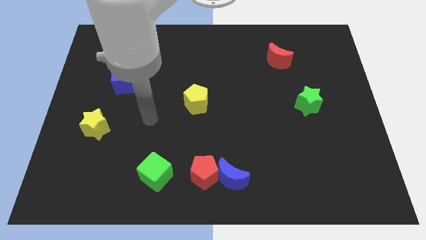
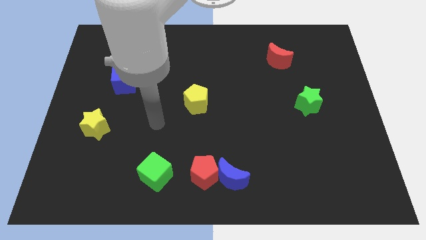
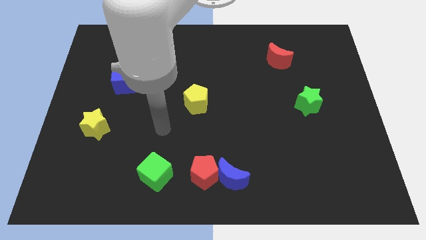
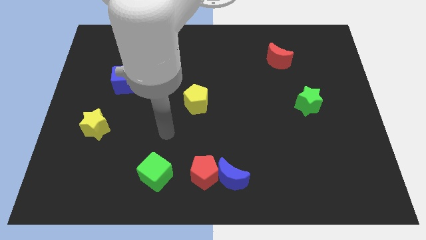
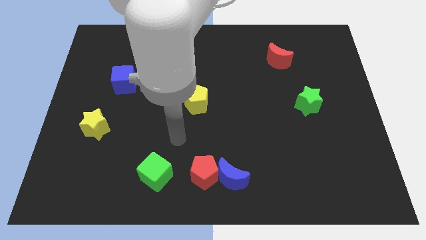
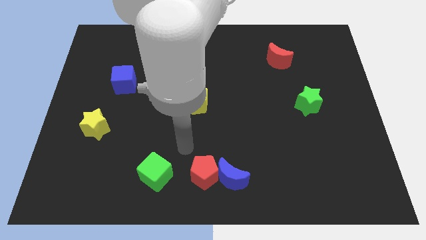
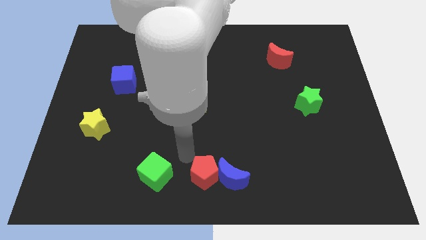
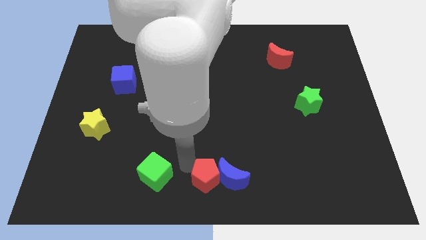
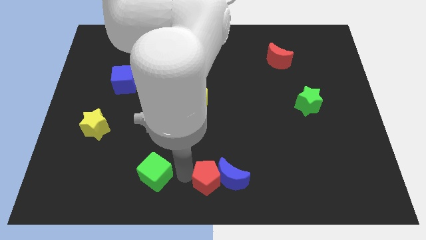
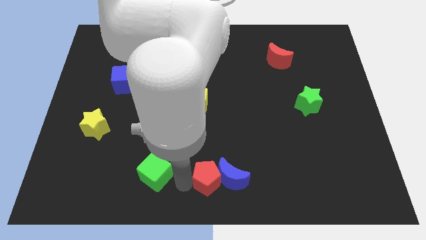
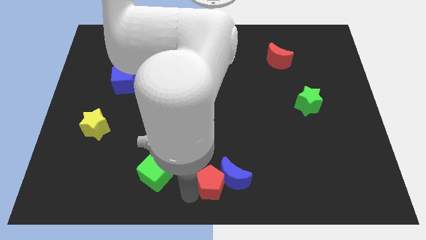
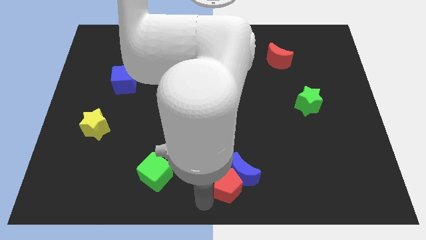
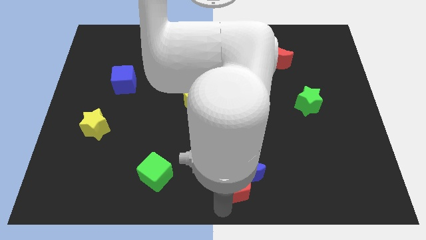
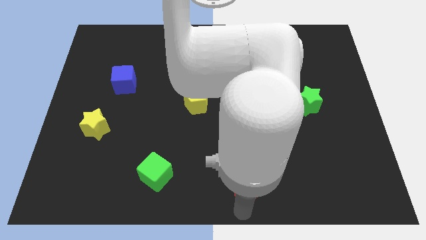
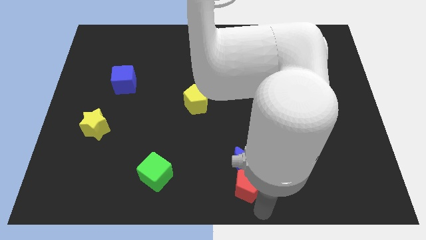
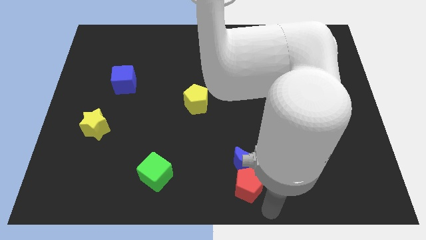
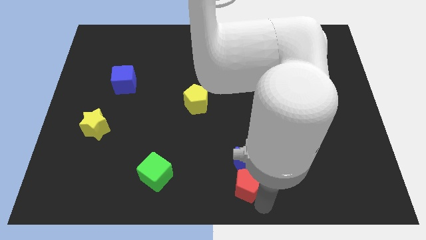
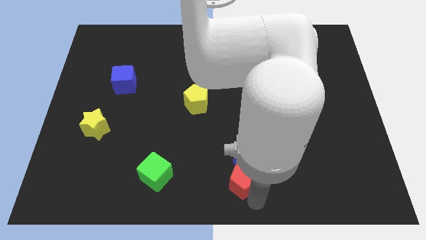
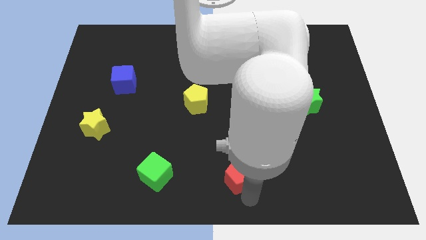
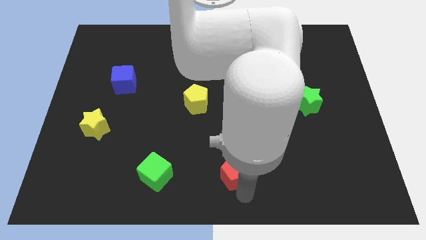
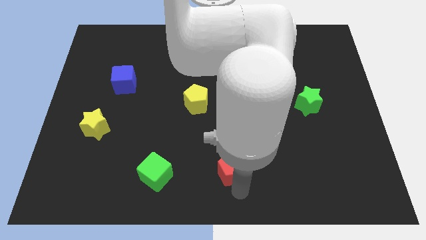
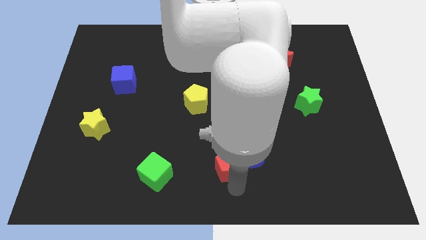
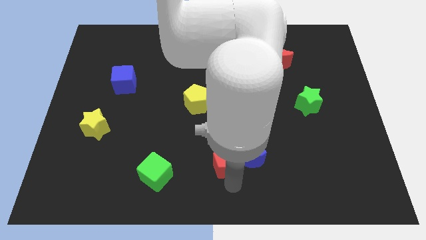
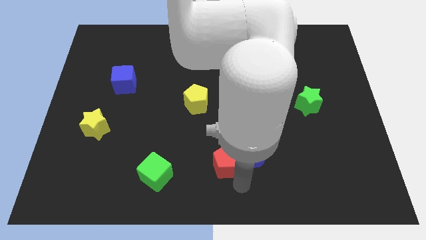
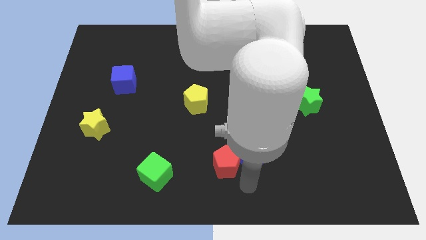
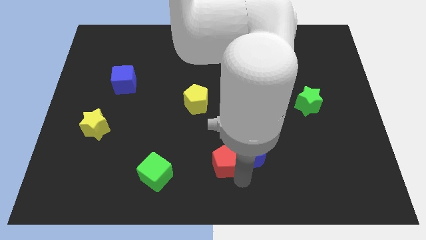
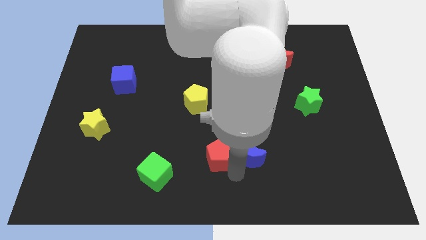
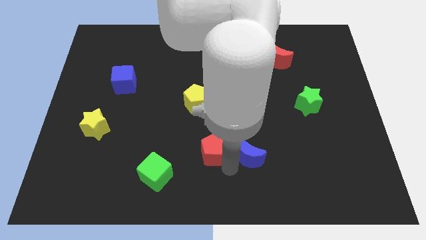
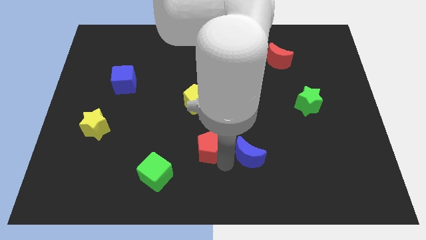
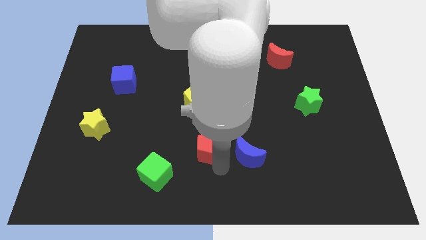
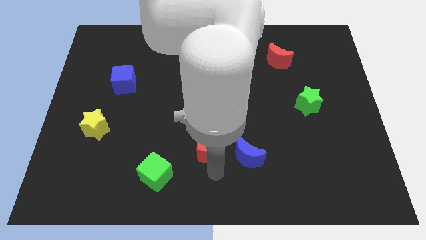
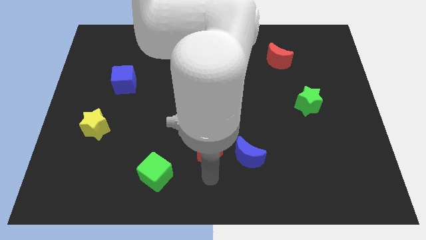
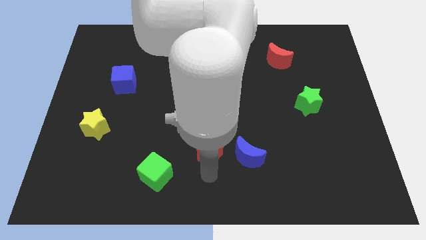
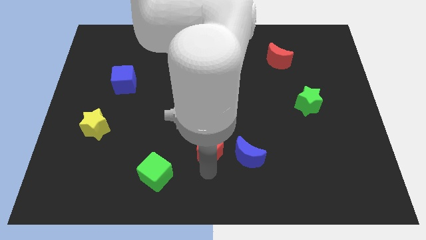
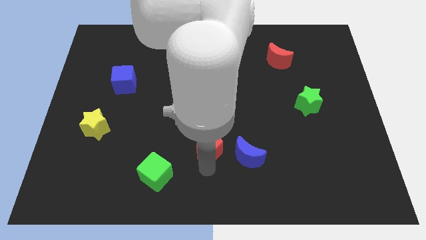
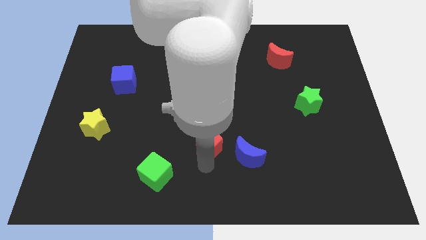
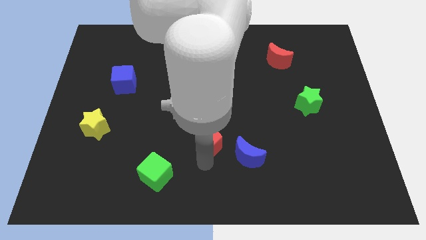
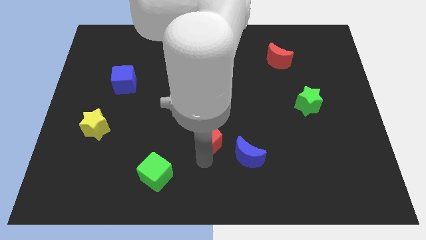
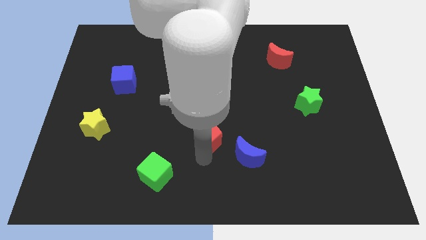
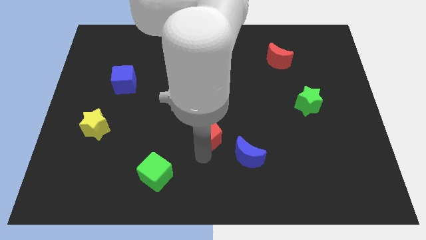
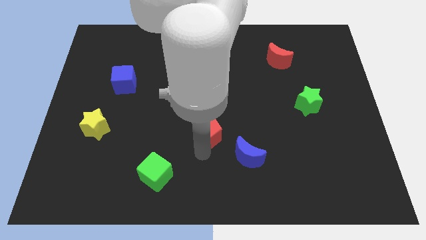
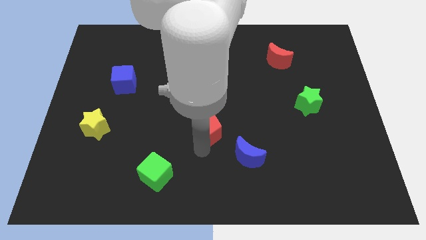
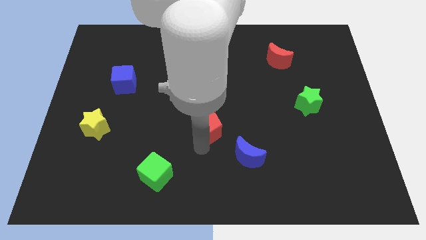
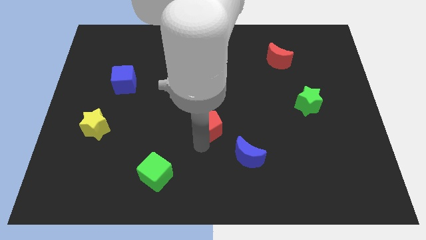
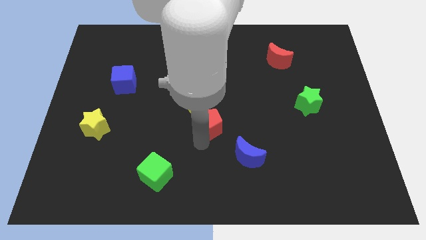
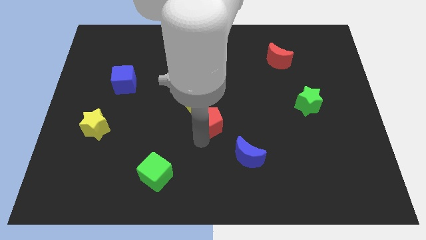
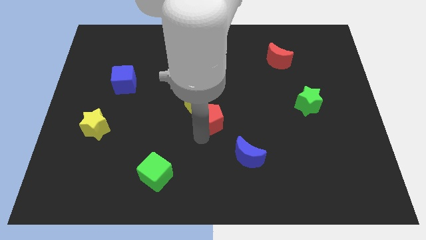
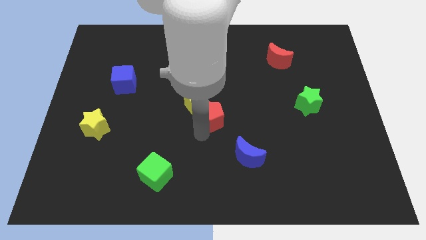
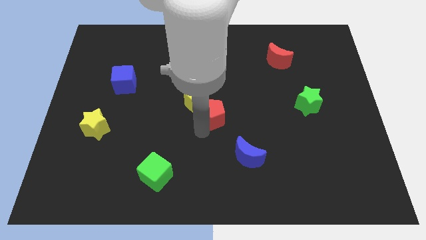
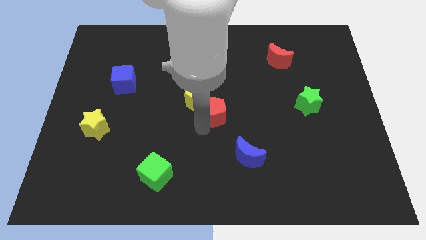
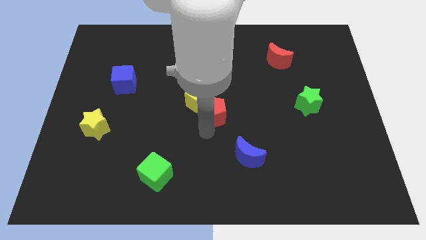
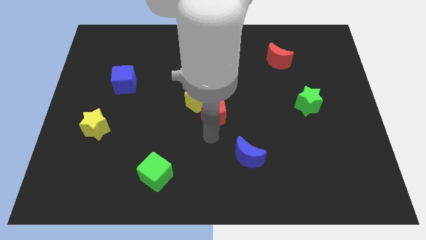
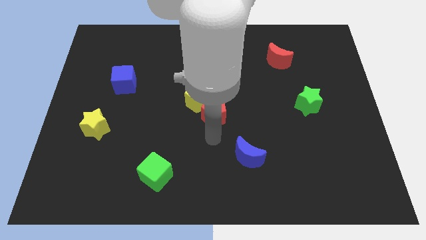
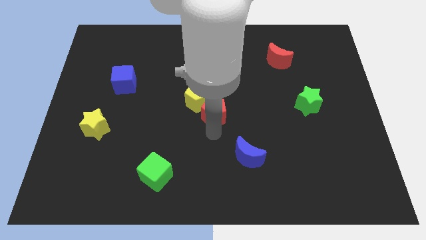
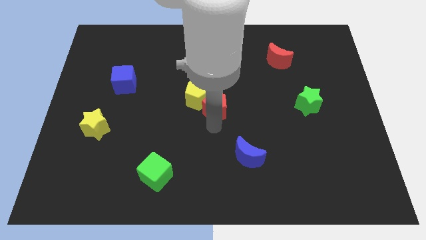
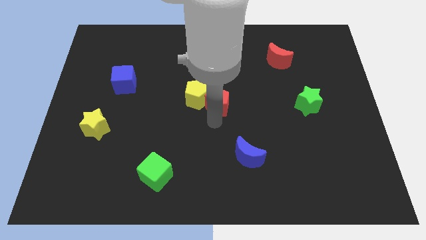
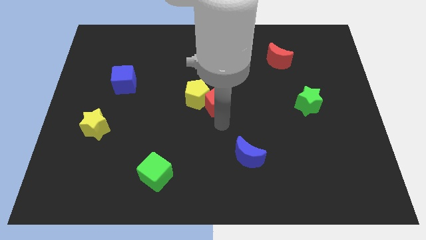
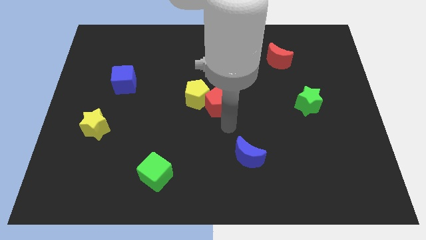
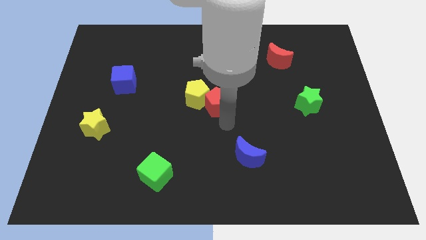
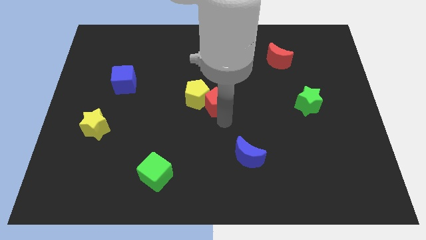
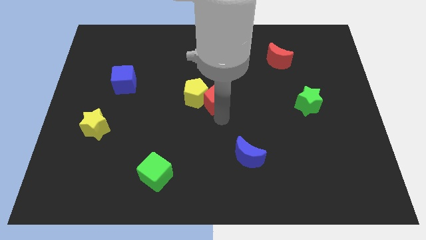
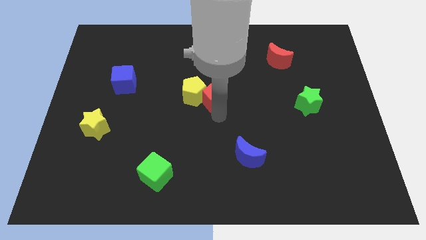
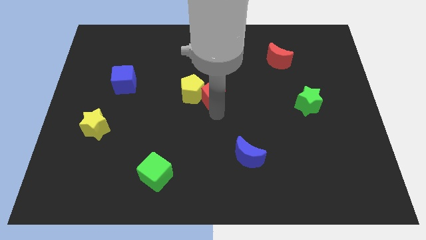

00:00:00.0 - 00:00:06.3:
slide the red pentagon upwards

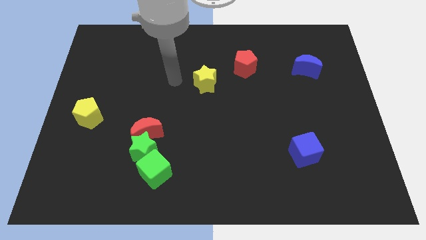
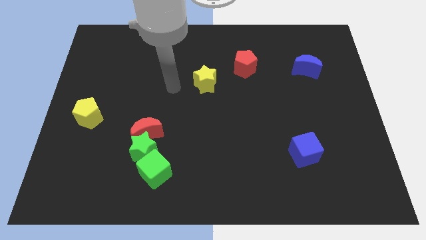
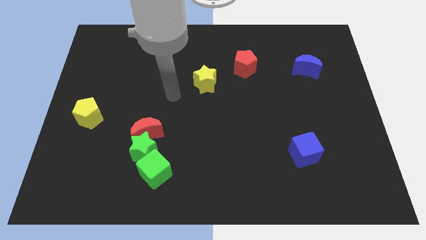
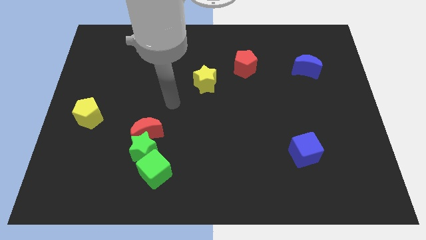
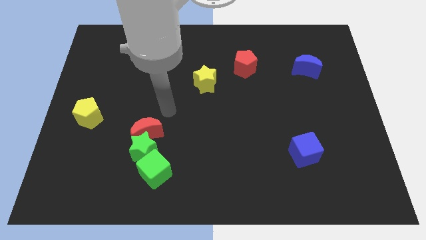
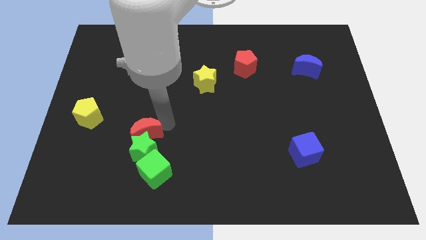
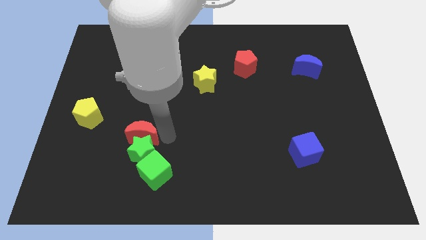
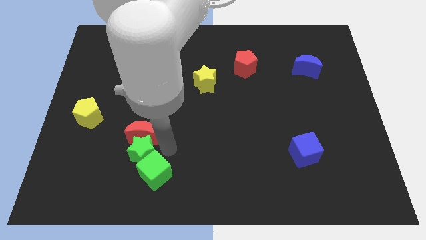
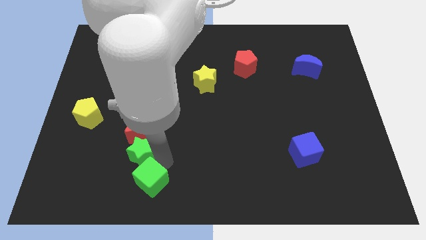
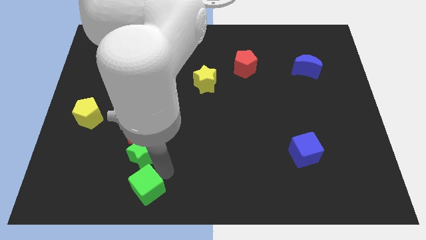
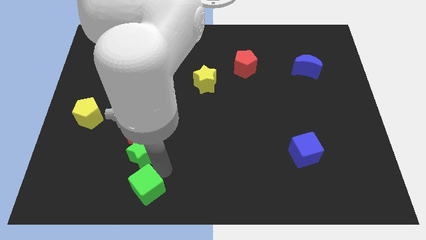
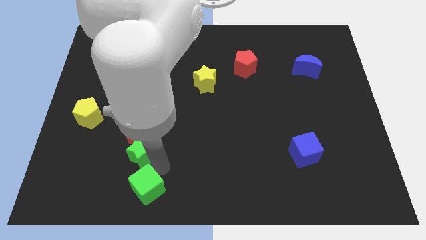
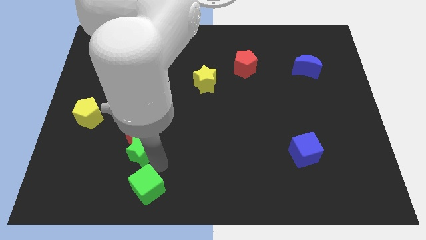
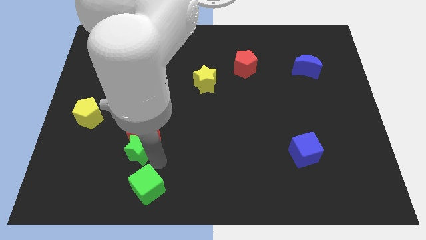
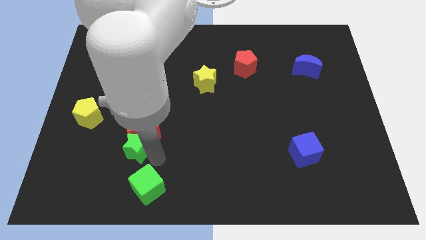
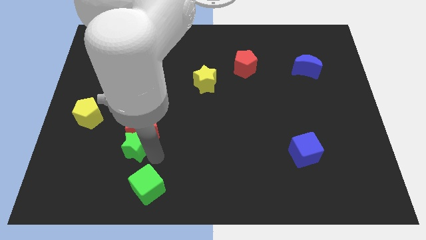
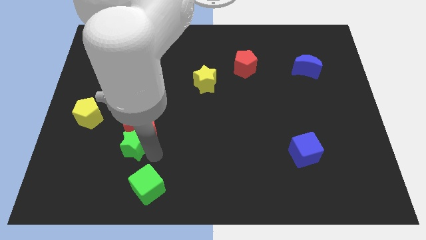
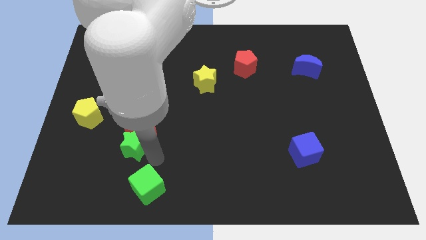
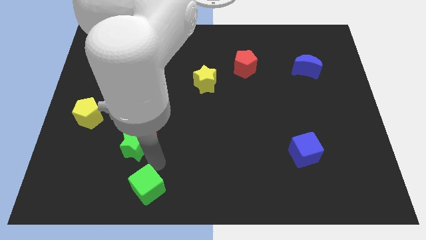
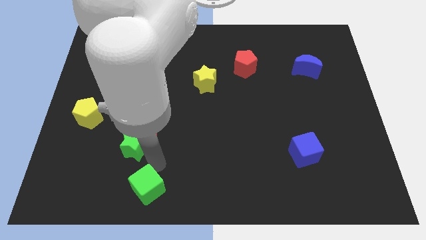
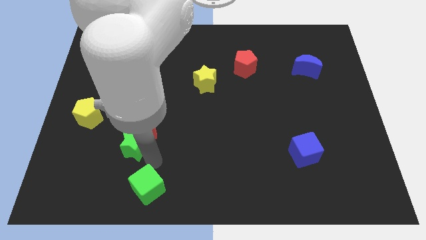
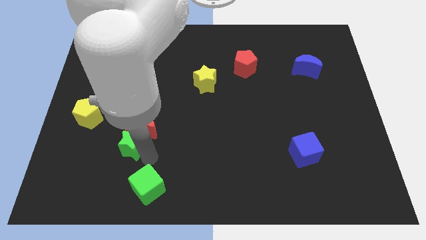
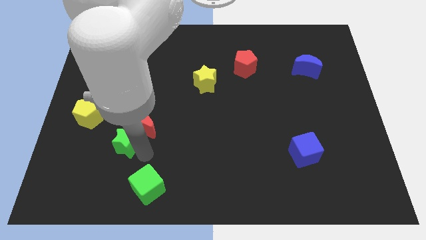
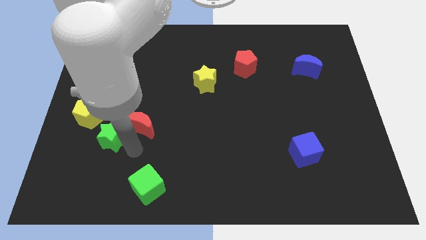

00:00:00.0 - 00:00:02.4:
slightly move the green star upwards and then to the left
